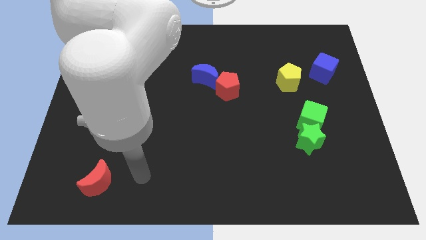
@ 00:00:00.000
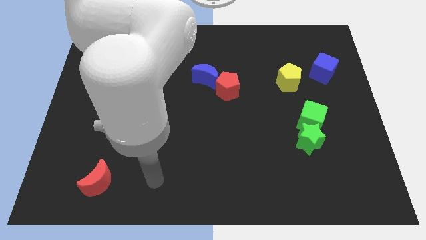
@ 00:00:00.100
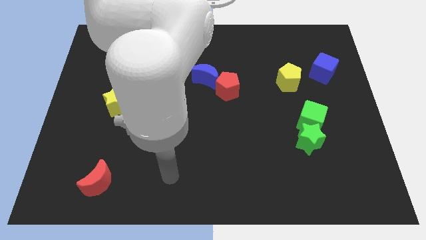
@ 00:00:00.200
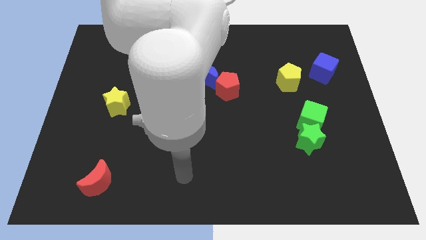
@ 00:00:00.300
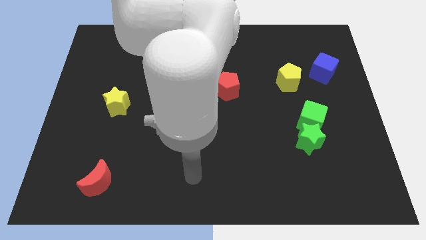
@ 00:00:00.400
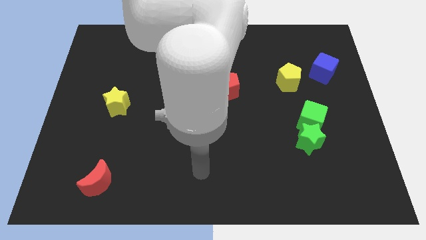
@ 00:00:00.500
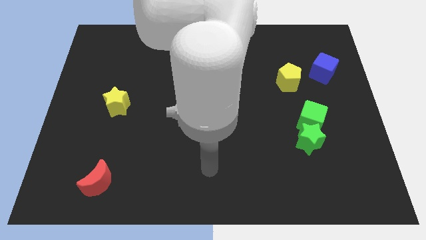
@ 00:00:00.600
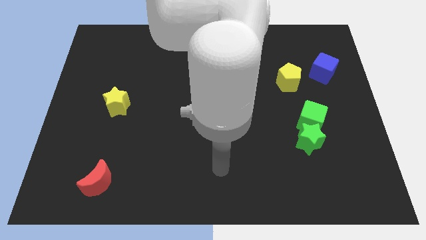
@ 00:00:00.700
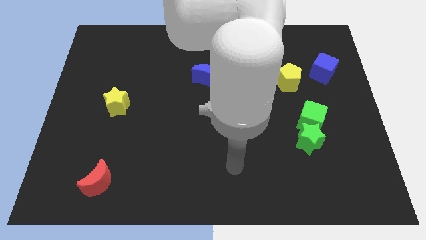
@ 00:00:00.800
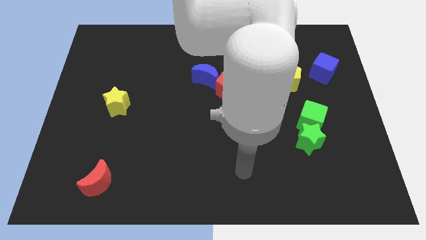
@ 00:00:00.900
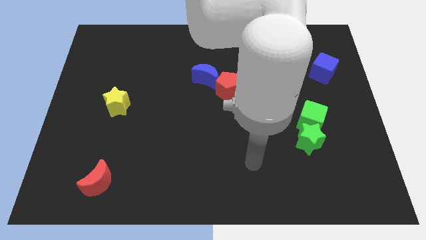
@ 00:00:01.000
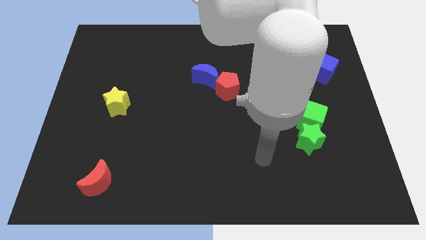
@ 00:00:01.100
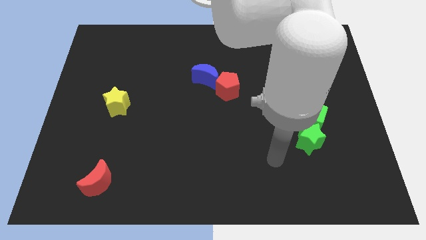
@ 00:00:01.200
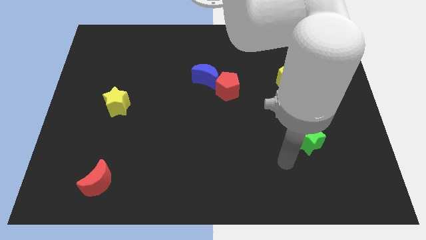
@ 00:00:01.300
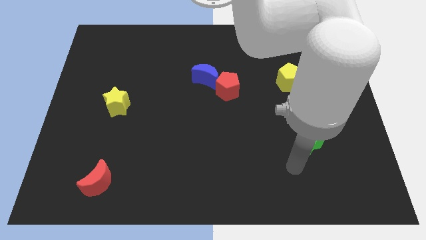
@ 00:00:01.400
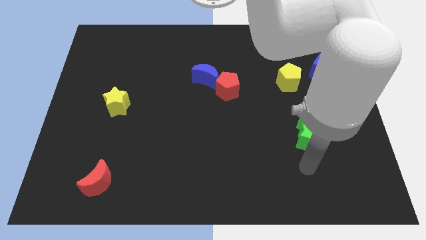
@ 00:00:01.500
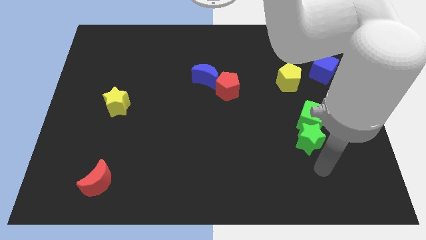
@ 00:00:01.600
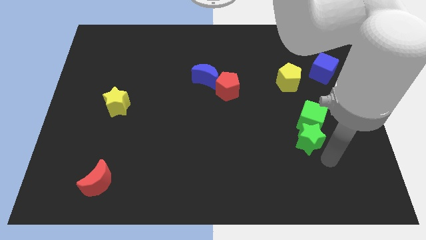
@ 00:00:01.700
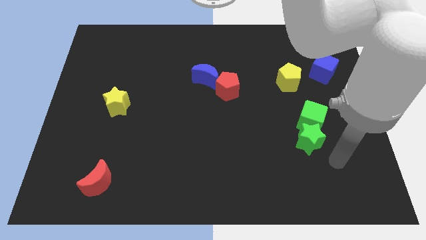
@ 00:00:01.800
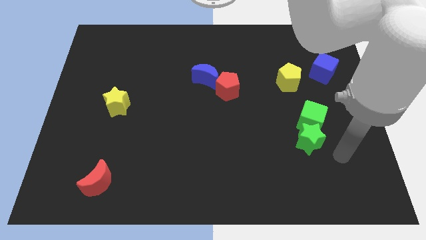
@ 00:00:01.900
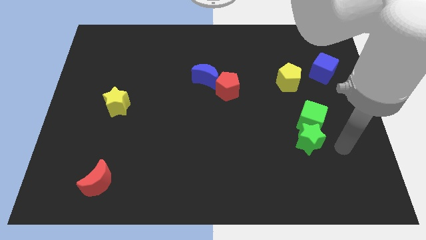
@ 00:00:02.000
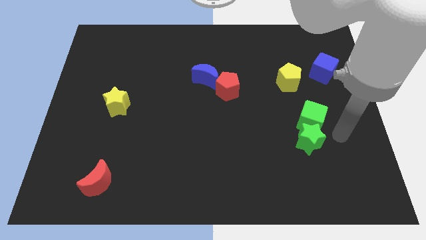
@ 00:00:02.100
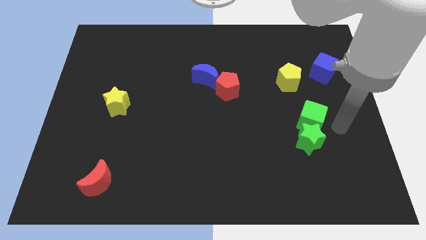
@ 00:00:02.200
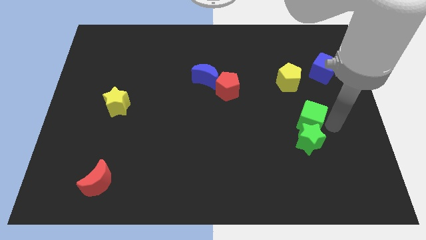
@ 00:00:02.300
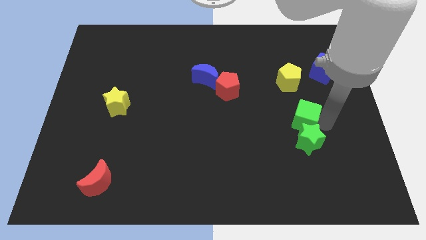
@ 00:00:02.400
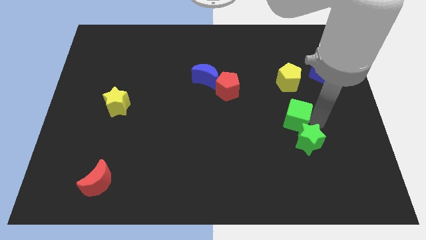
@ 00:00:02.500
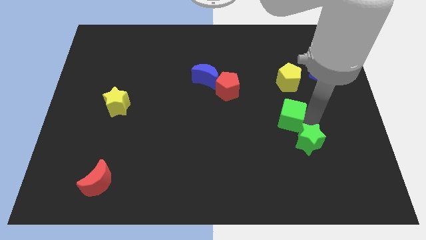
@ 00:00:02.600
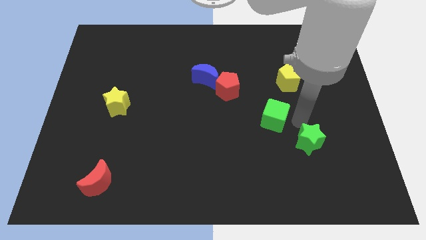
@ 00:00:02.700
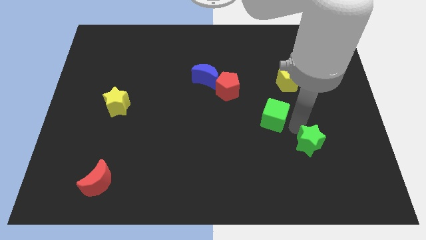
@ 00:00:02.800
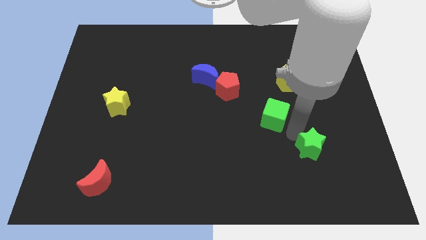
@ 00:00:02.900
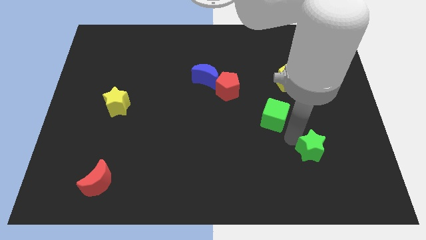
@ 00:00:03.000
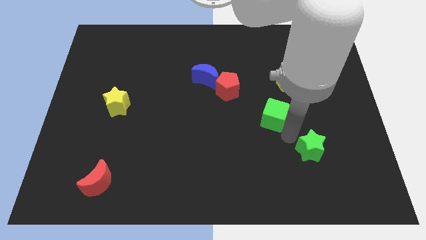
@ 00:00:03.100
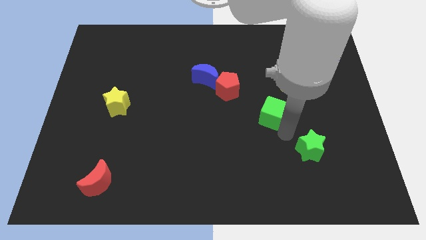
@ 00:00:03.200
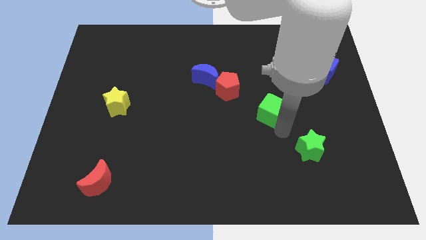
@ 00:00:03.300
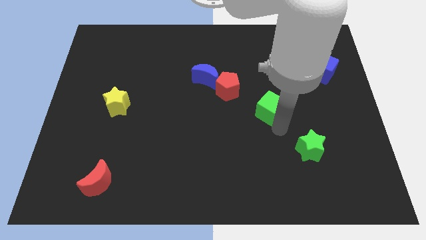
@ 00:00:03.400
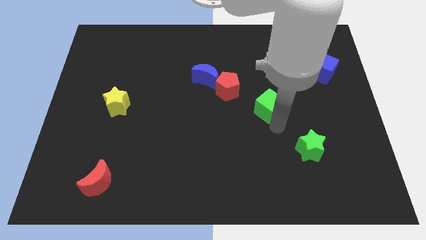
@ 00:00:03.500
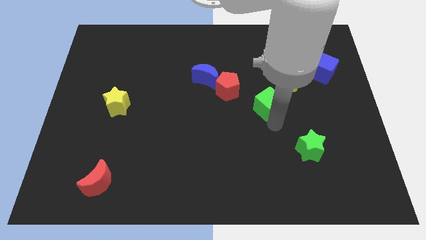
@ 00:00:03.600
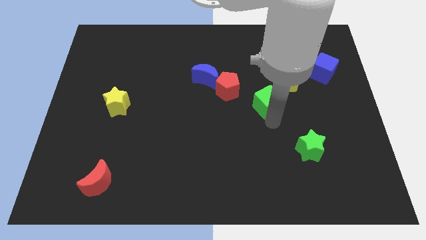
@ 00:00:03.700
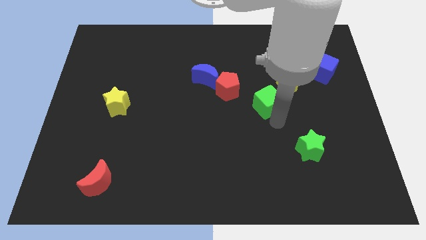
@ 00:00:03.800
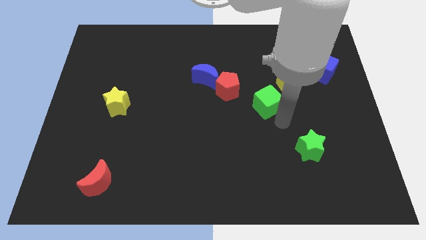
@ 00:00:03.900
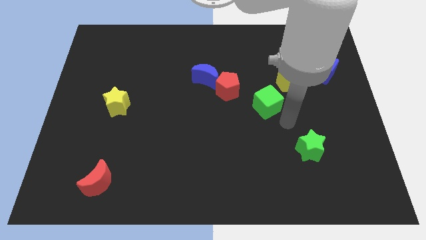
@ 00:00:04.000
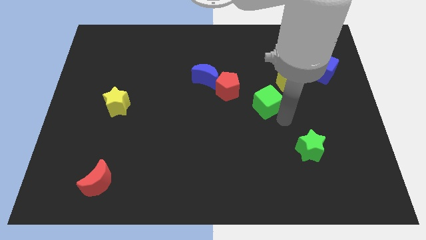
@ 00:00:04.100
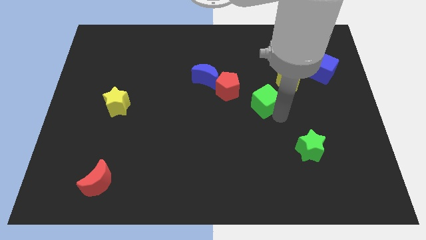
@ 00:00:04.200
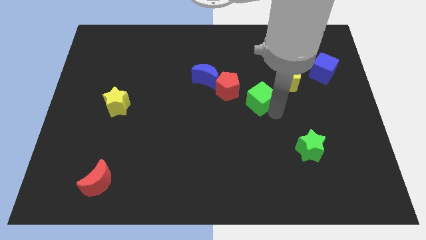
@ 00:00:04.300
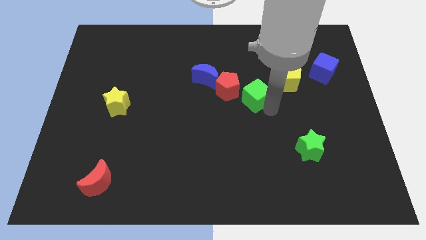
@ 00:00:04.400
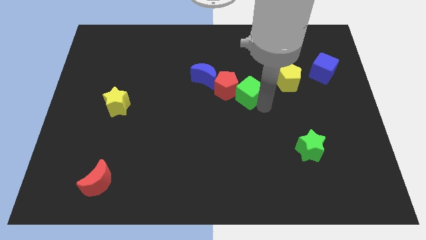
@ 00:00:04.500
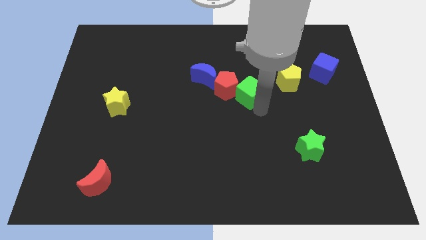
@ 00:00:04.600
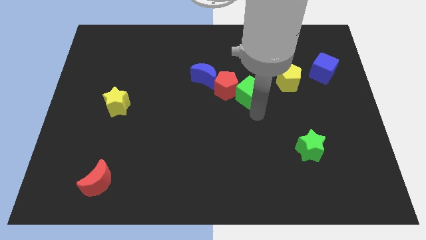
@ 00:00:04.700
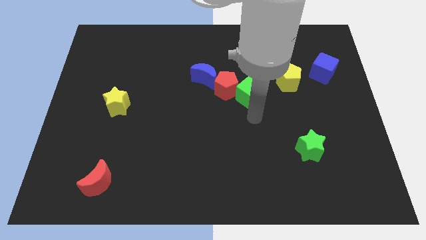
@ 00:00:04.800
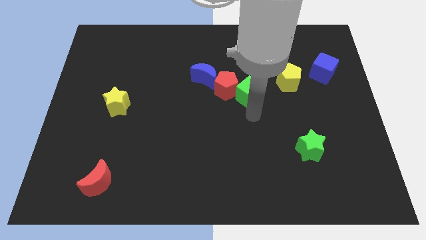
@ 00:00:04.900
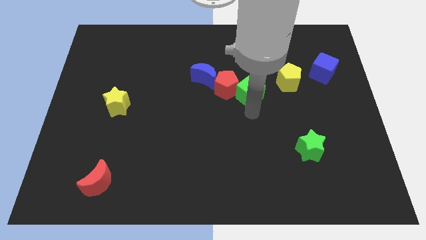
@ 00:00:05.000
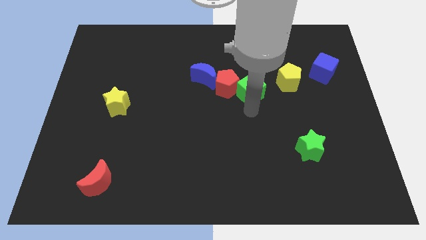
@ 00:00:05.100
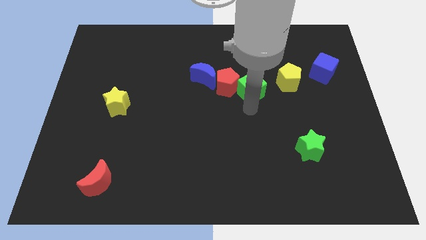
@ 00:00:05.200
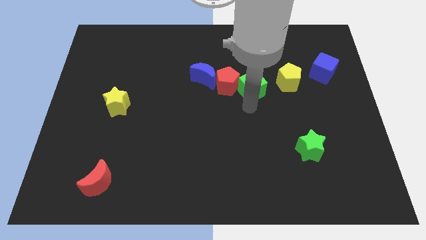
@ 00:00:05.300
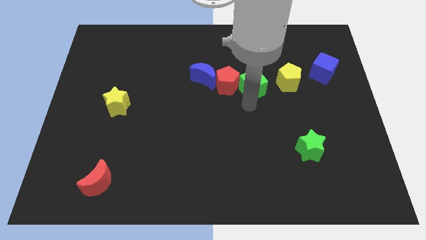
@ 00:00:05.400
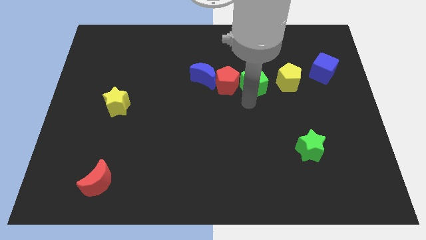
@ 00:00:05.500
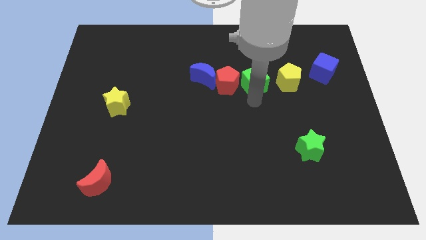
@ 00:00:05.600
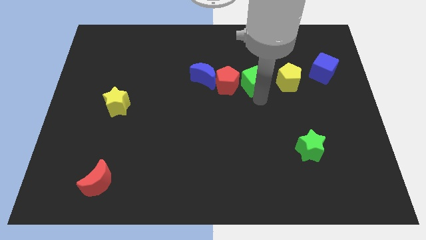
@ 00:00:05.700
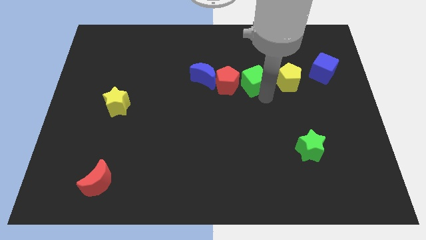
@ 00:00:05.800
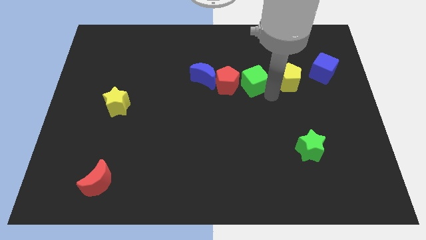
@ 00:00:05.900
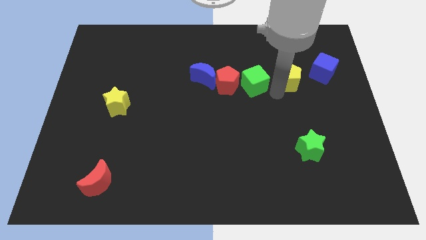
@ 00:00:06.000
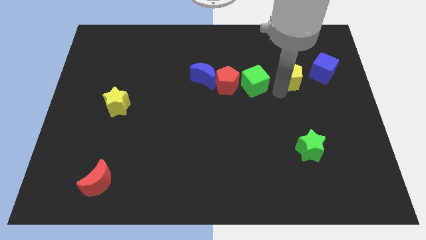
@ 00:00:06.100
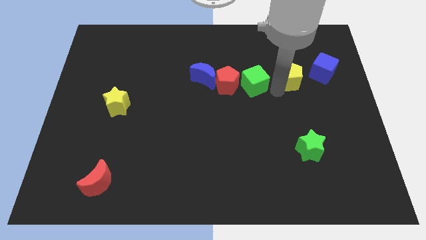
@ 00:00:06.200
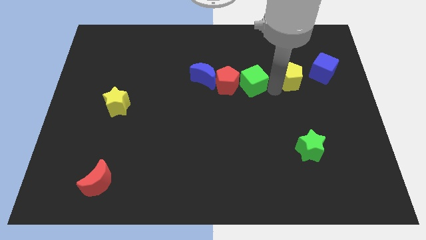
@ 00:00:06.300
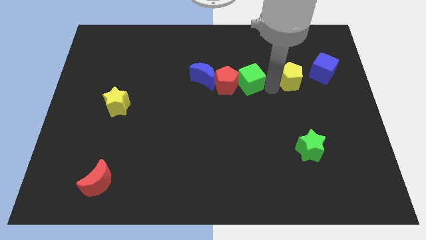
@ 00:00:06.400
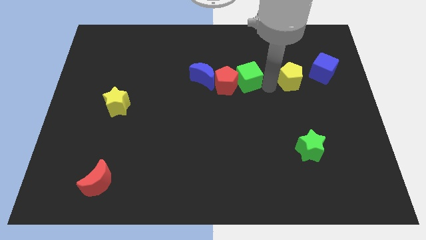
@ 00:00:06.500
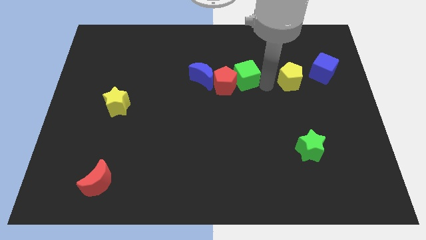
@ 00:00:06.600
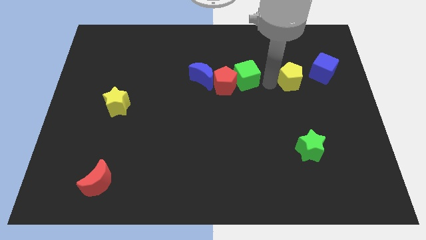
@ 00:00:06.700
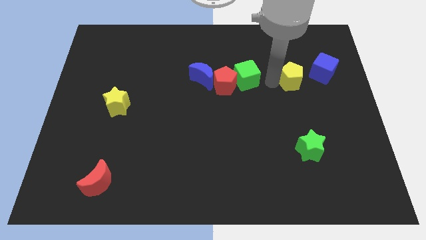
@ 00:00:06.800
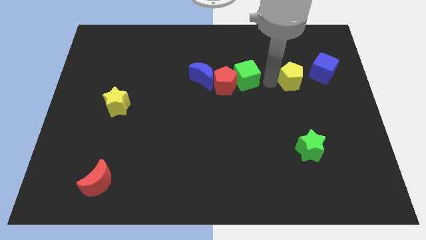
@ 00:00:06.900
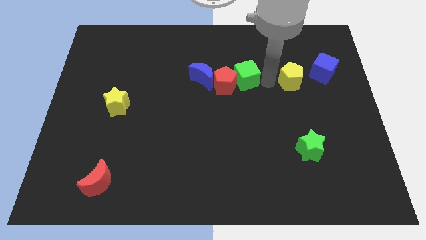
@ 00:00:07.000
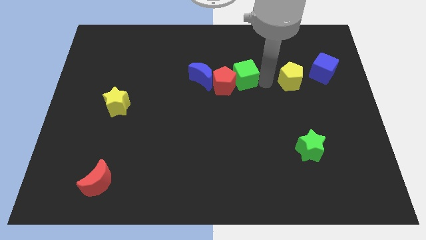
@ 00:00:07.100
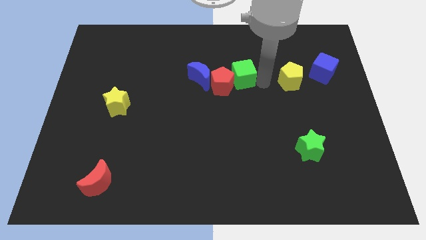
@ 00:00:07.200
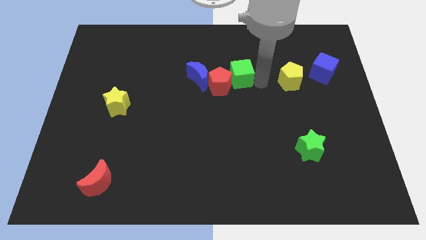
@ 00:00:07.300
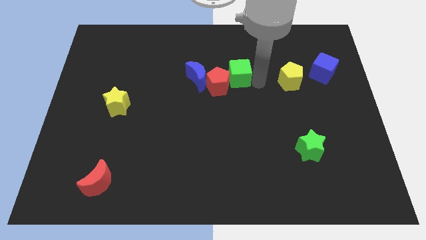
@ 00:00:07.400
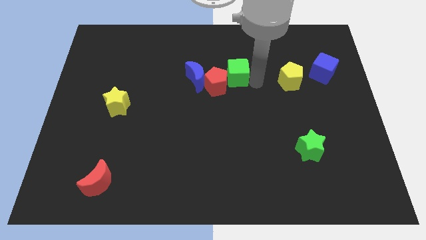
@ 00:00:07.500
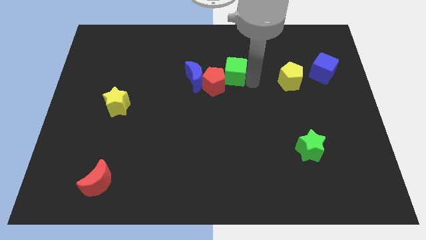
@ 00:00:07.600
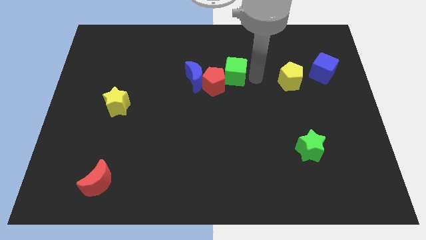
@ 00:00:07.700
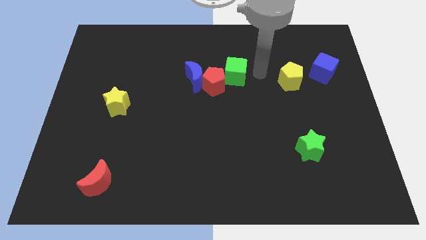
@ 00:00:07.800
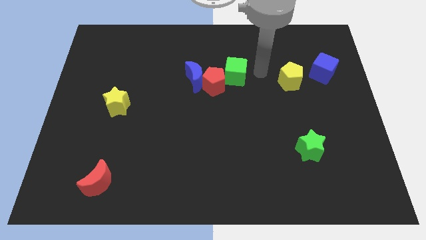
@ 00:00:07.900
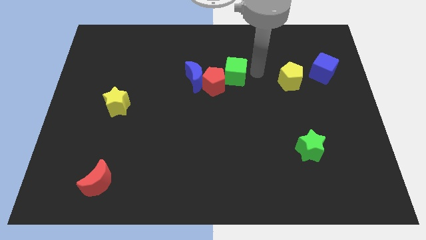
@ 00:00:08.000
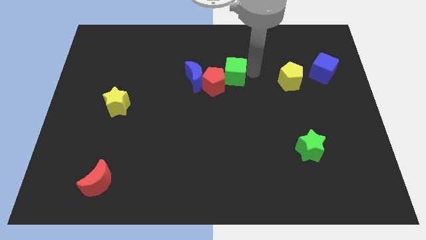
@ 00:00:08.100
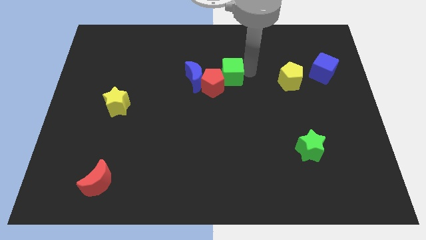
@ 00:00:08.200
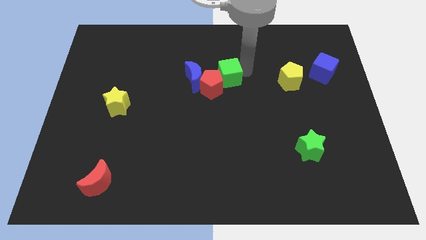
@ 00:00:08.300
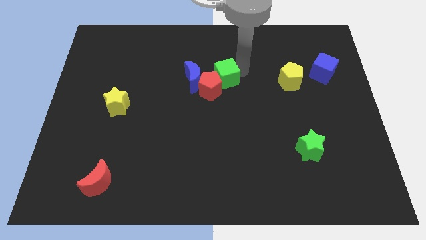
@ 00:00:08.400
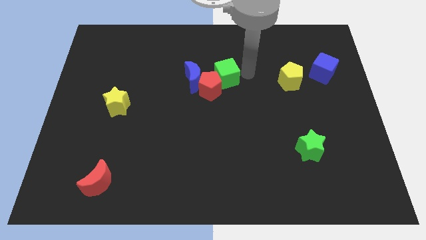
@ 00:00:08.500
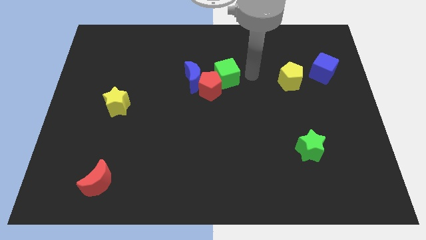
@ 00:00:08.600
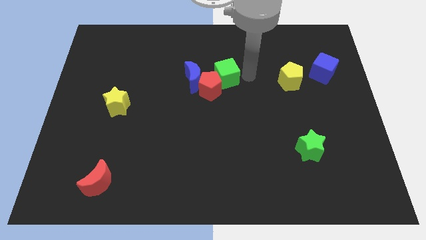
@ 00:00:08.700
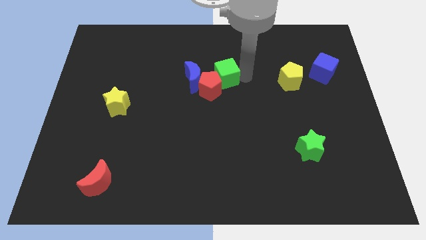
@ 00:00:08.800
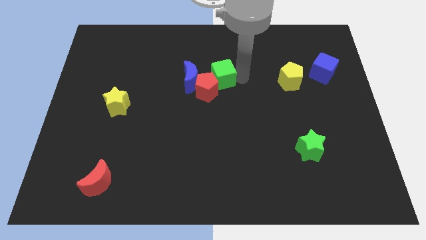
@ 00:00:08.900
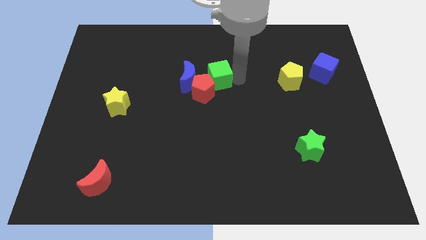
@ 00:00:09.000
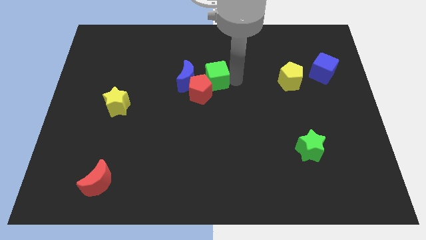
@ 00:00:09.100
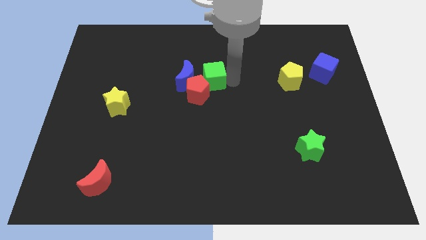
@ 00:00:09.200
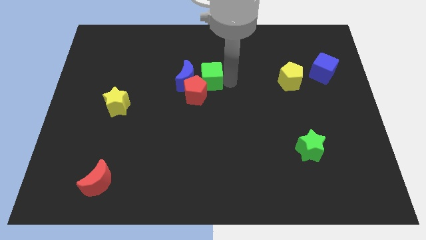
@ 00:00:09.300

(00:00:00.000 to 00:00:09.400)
move the green cube close to the blue moon
